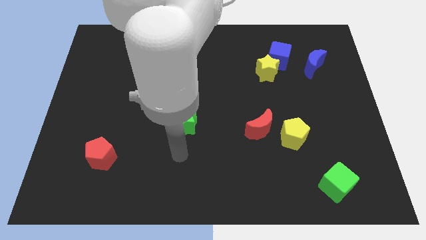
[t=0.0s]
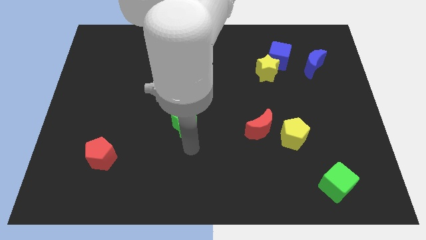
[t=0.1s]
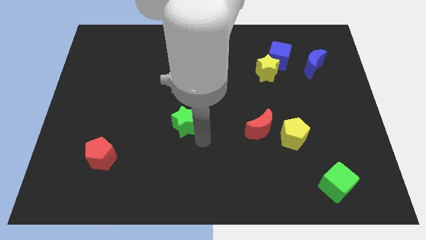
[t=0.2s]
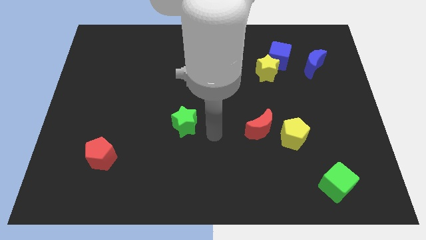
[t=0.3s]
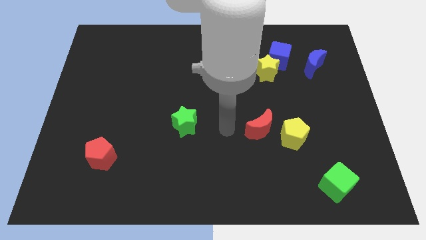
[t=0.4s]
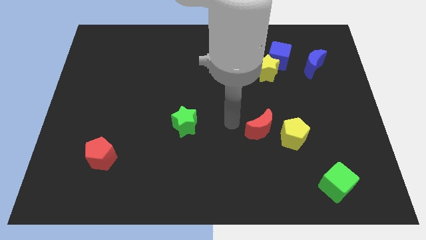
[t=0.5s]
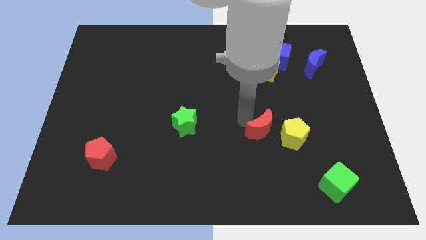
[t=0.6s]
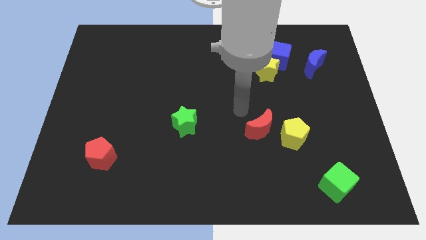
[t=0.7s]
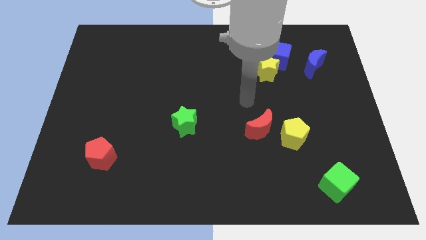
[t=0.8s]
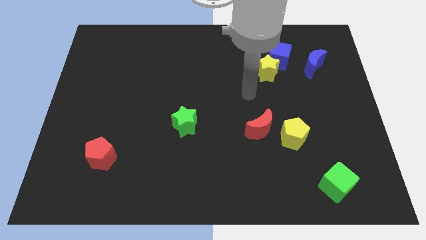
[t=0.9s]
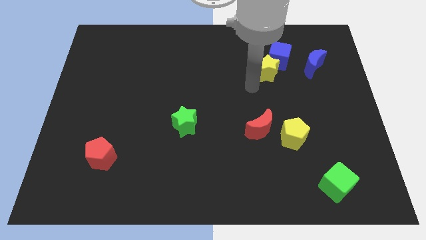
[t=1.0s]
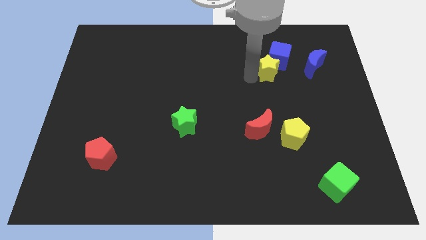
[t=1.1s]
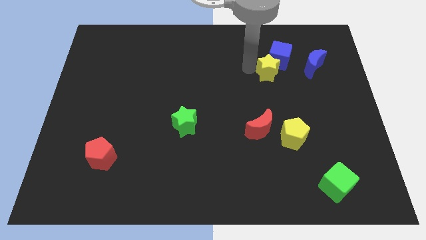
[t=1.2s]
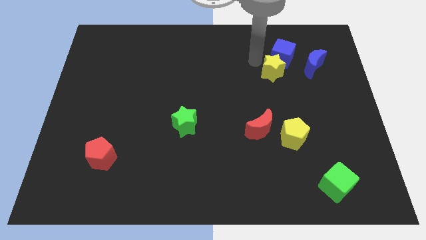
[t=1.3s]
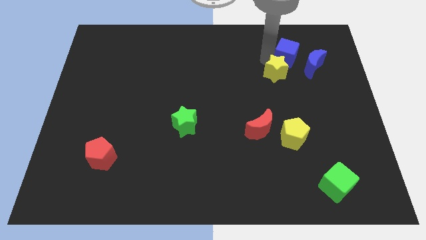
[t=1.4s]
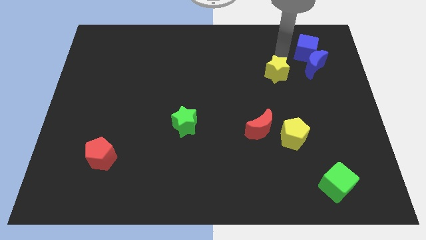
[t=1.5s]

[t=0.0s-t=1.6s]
move the yellow star away from the blue cube

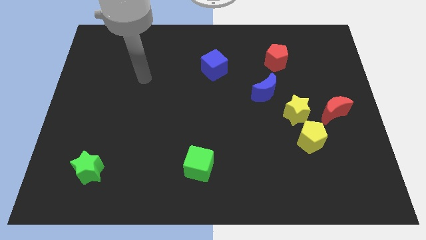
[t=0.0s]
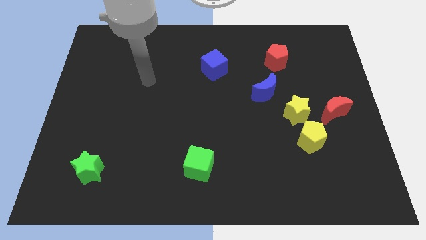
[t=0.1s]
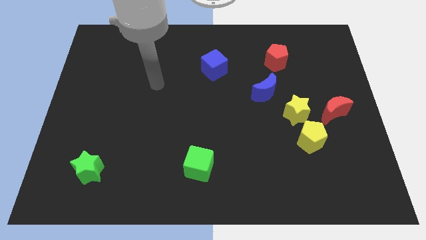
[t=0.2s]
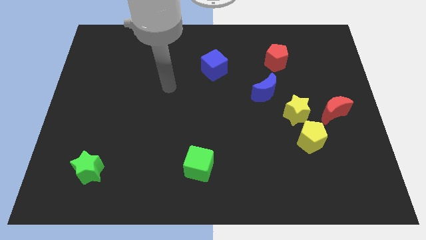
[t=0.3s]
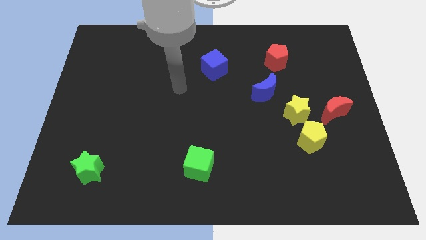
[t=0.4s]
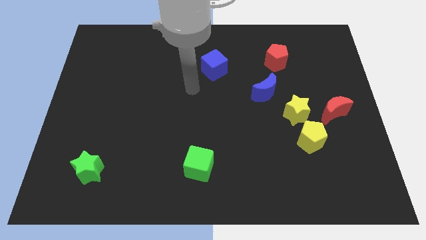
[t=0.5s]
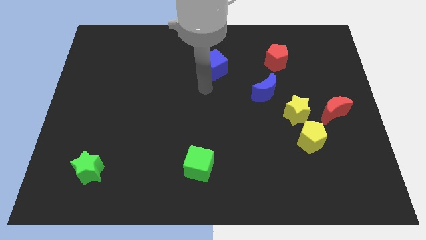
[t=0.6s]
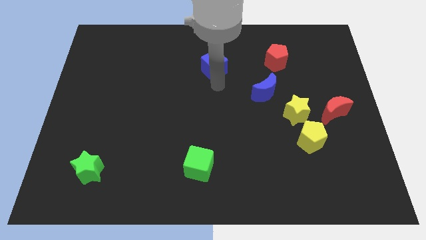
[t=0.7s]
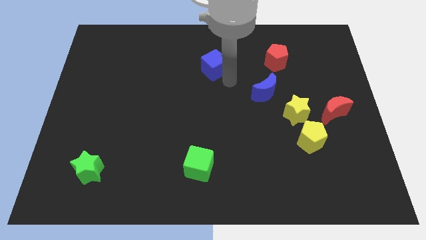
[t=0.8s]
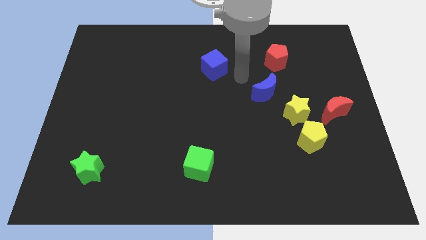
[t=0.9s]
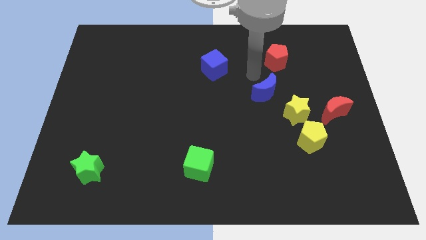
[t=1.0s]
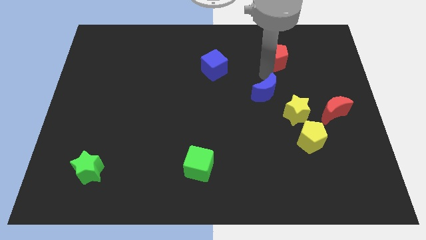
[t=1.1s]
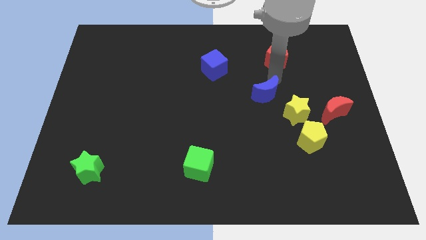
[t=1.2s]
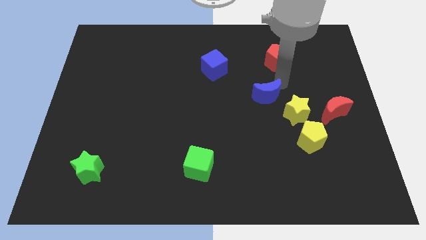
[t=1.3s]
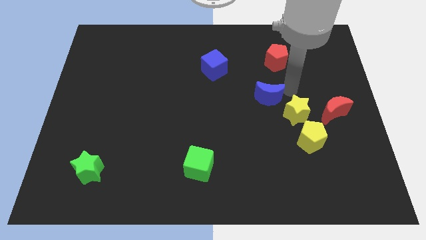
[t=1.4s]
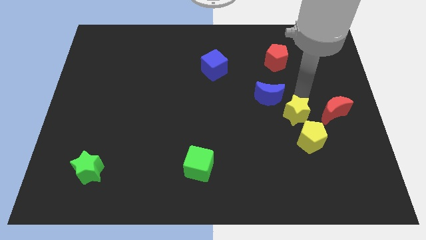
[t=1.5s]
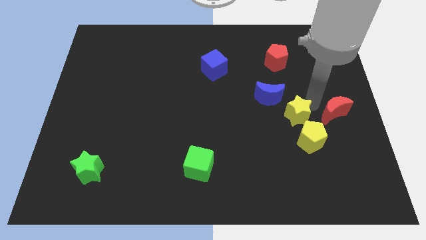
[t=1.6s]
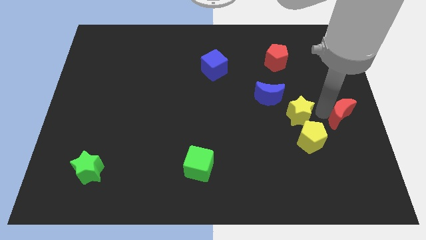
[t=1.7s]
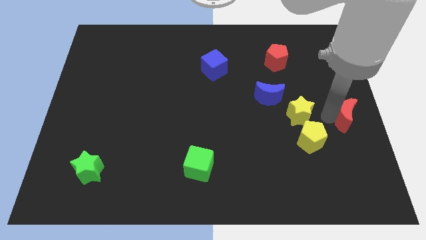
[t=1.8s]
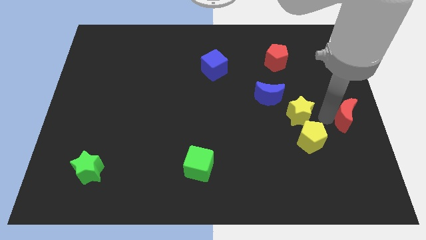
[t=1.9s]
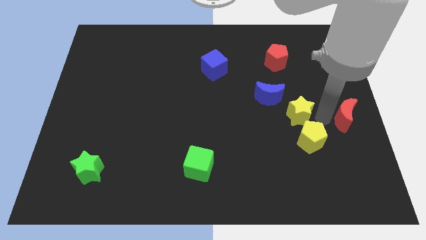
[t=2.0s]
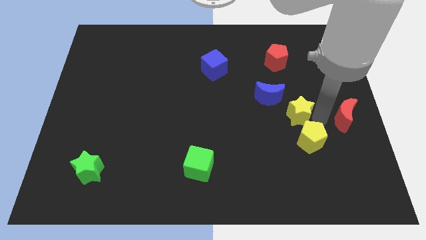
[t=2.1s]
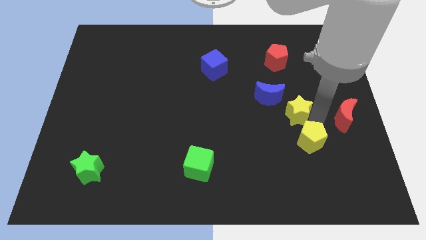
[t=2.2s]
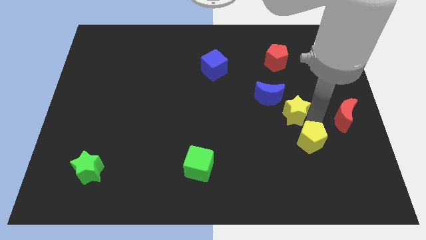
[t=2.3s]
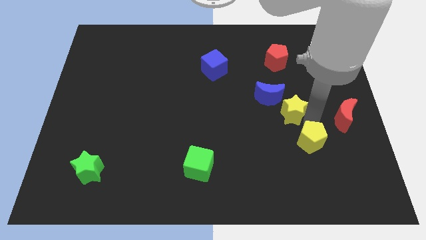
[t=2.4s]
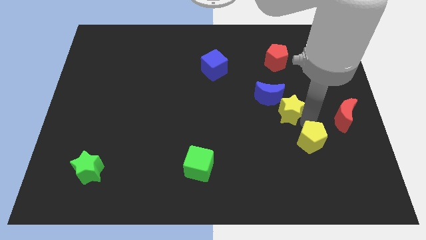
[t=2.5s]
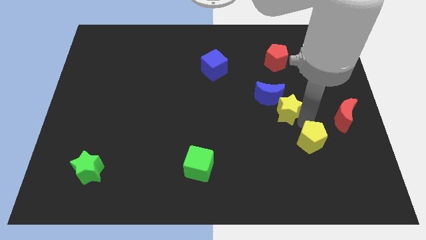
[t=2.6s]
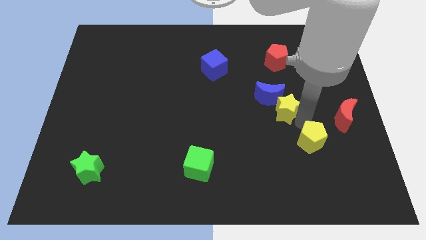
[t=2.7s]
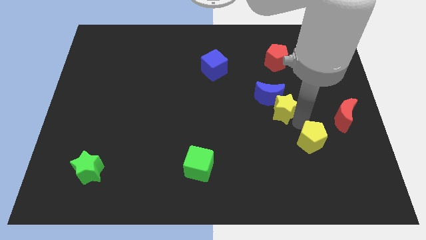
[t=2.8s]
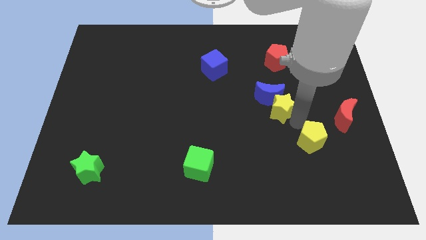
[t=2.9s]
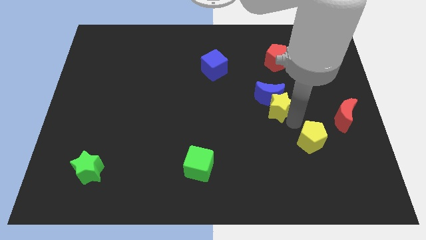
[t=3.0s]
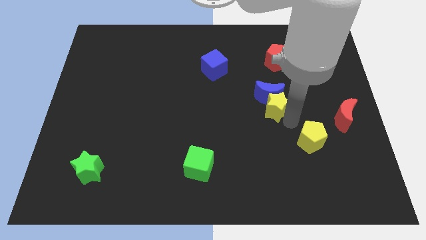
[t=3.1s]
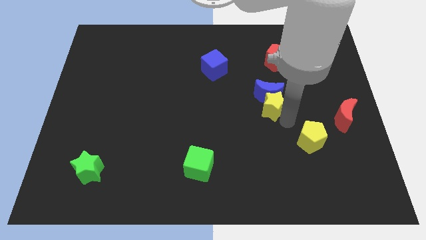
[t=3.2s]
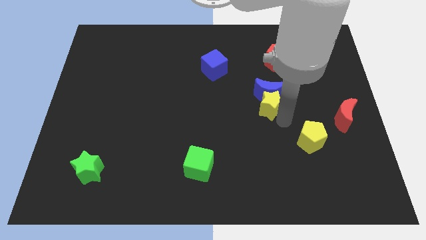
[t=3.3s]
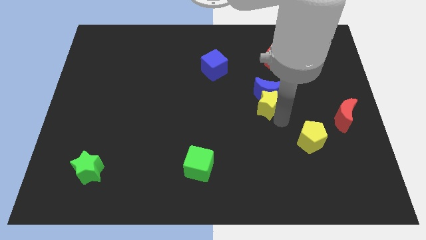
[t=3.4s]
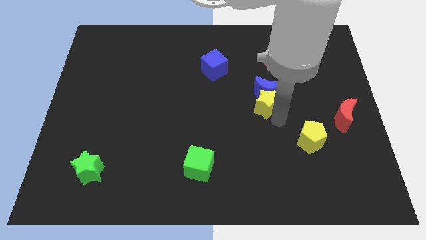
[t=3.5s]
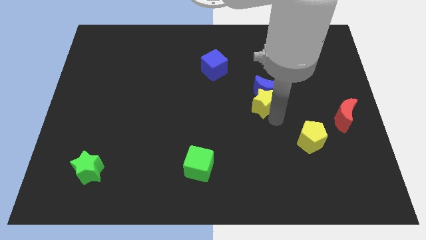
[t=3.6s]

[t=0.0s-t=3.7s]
separate the yellow star from the group

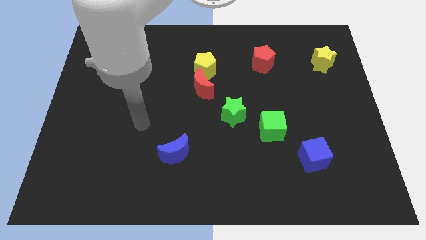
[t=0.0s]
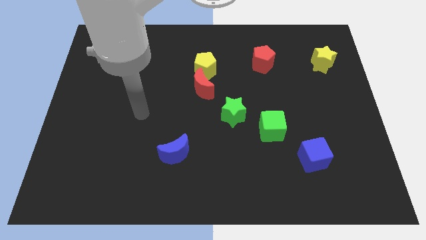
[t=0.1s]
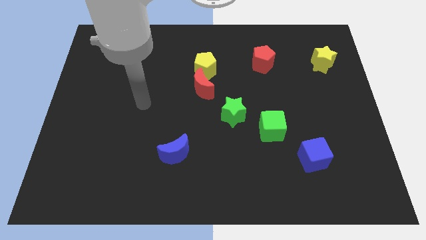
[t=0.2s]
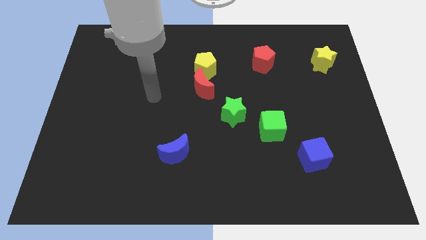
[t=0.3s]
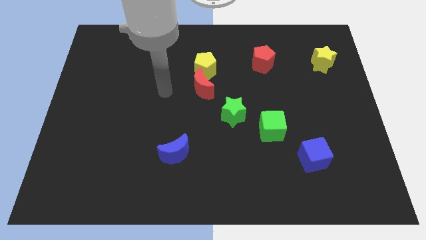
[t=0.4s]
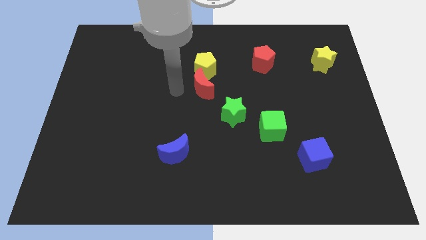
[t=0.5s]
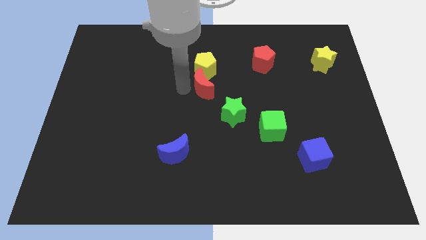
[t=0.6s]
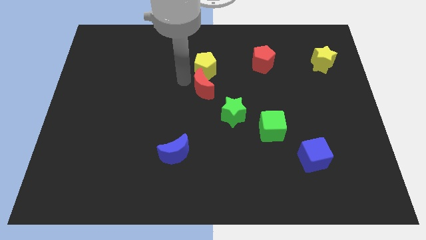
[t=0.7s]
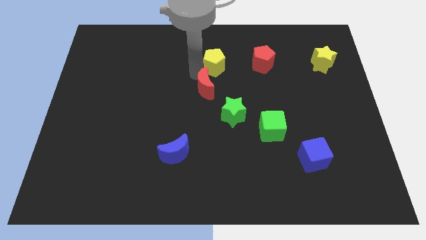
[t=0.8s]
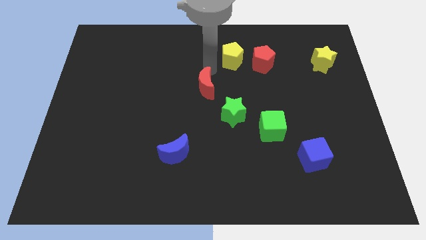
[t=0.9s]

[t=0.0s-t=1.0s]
move the red moon away from the yellow pentagon

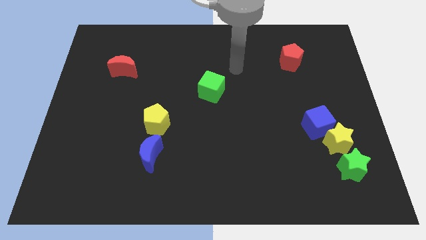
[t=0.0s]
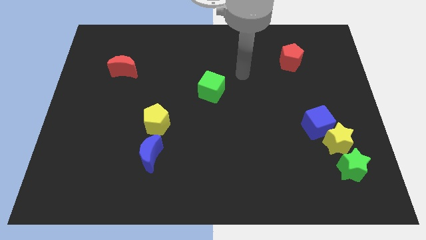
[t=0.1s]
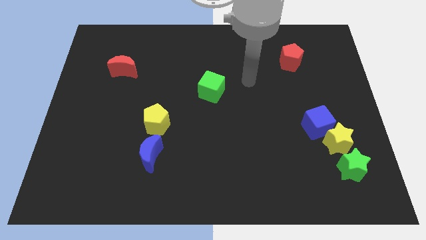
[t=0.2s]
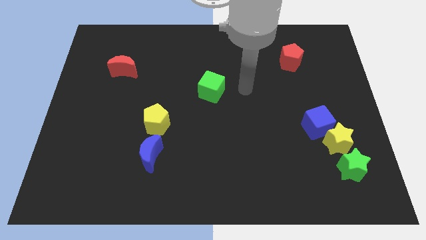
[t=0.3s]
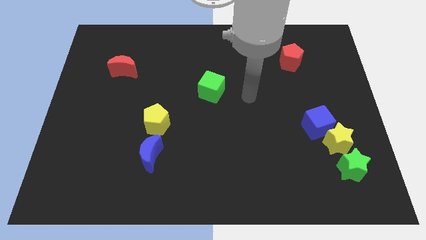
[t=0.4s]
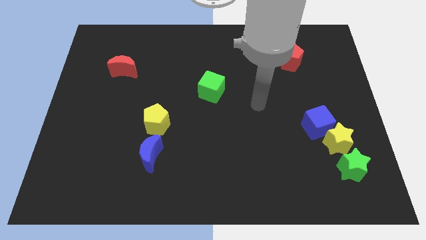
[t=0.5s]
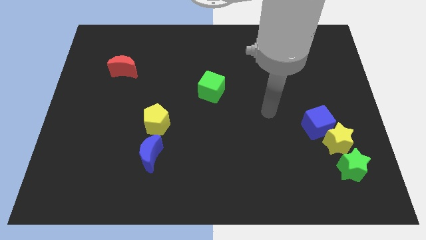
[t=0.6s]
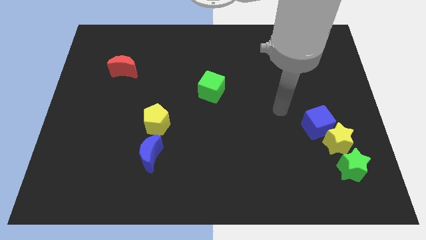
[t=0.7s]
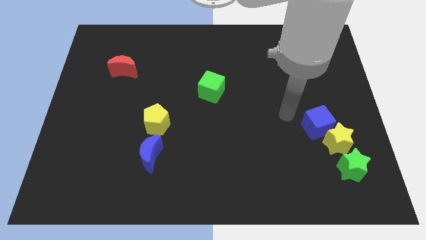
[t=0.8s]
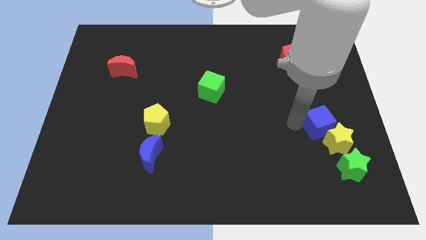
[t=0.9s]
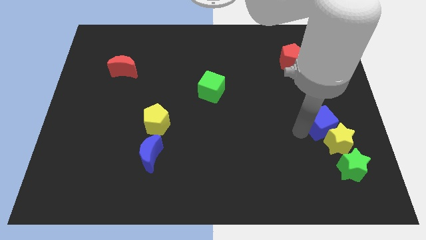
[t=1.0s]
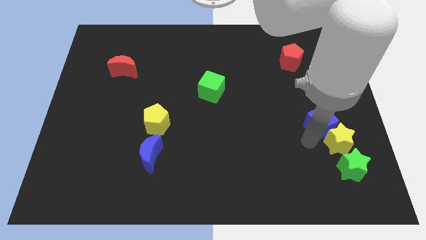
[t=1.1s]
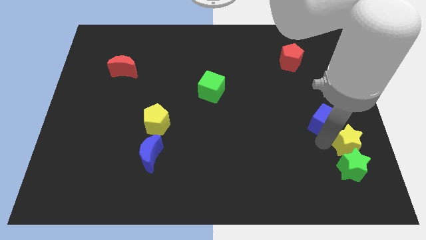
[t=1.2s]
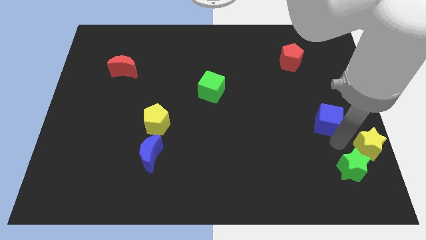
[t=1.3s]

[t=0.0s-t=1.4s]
pull the blue cube apart from the yellow star

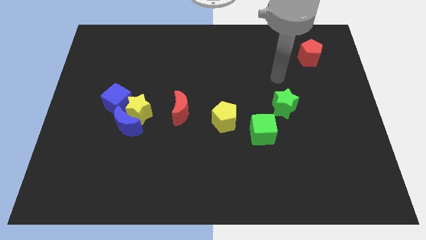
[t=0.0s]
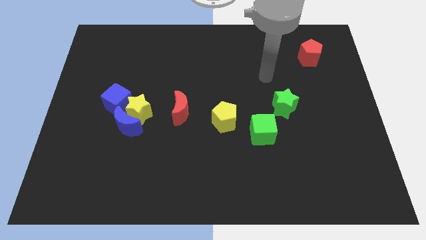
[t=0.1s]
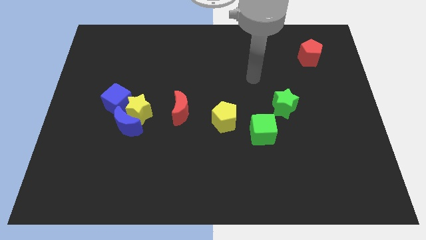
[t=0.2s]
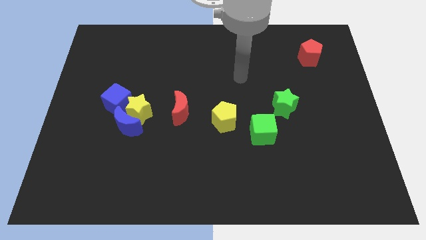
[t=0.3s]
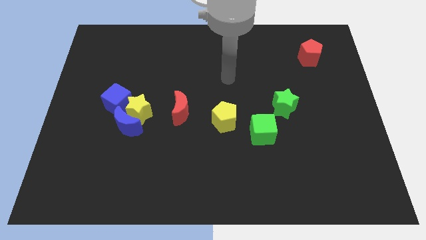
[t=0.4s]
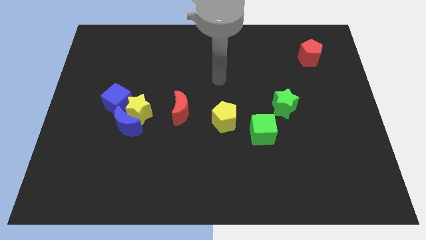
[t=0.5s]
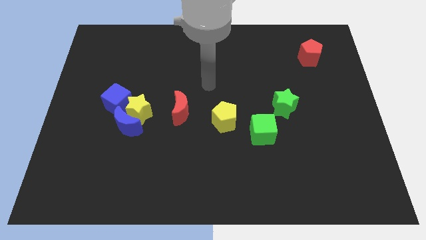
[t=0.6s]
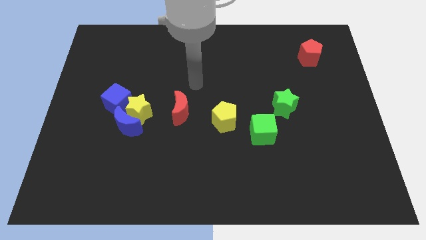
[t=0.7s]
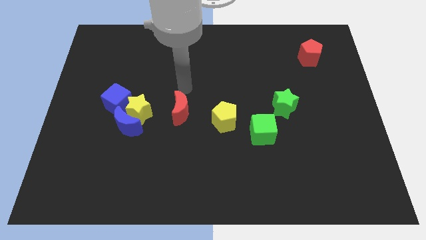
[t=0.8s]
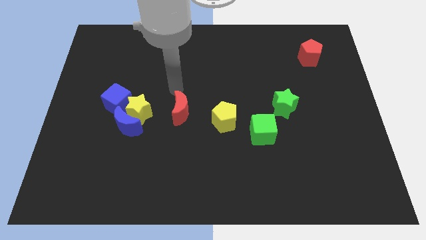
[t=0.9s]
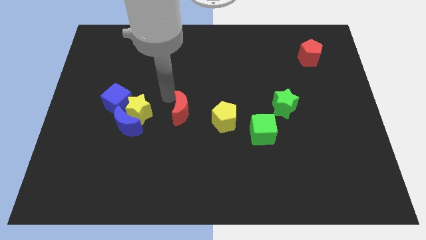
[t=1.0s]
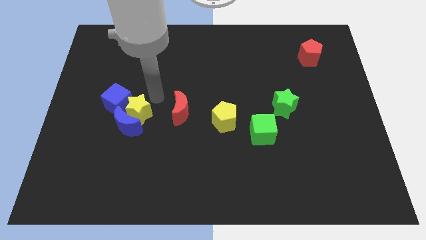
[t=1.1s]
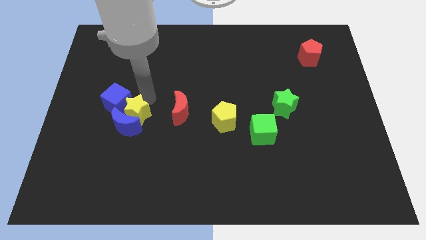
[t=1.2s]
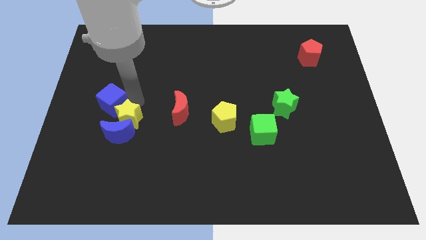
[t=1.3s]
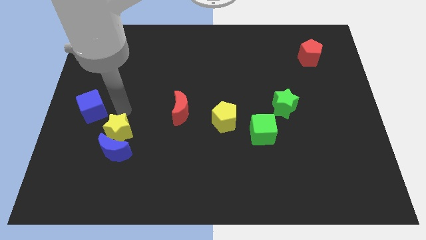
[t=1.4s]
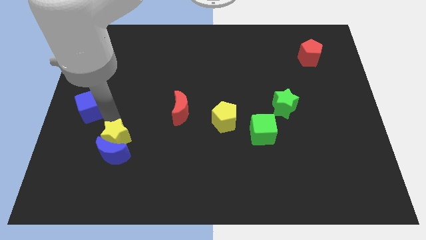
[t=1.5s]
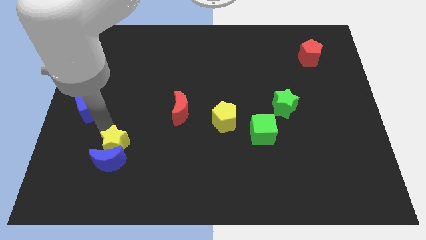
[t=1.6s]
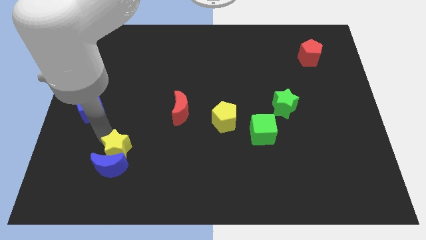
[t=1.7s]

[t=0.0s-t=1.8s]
pull the blue moon apart from the yellow star and blue cube
